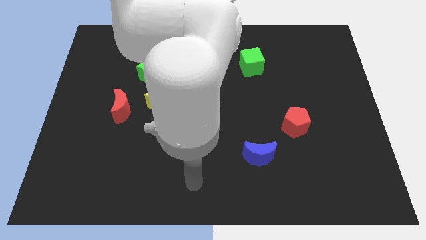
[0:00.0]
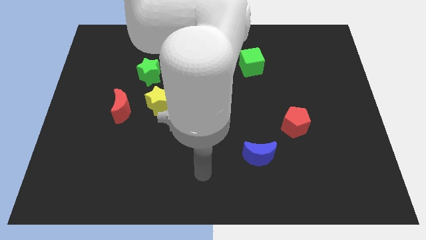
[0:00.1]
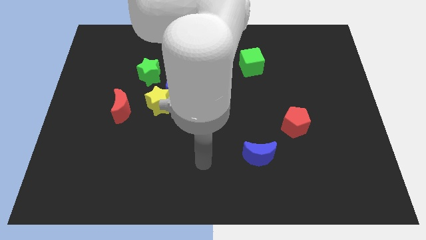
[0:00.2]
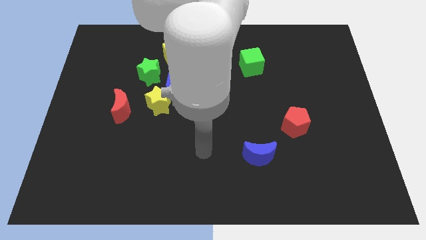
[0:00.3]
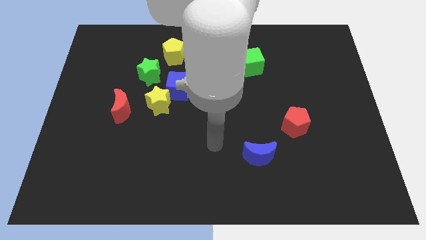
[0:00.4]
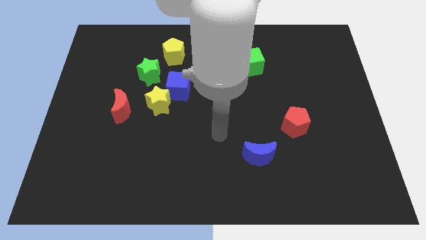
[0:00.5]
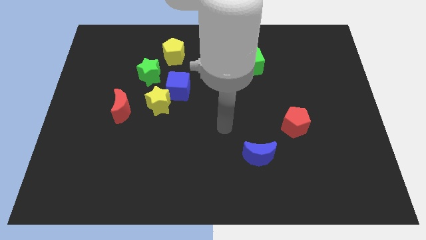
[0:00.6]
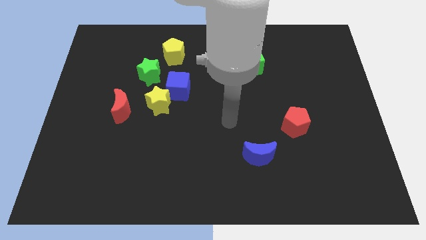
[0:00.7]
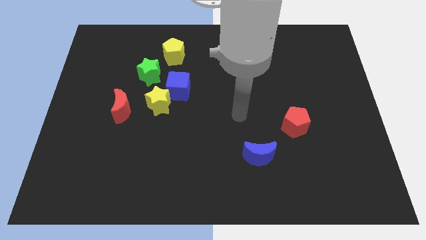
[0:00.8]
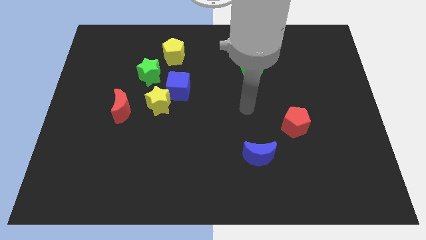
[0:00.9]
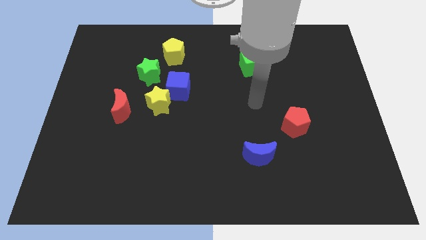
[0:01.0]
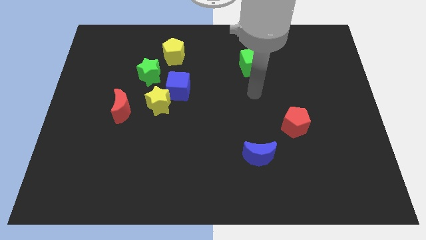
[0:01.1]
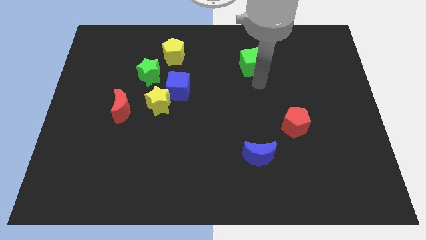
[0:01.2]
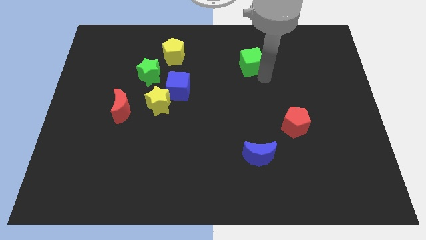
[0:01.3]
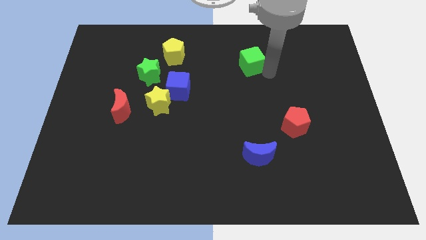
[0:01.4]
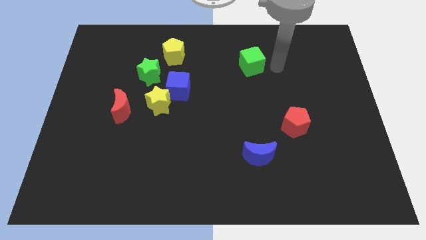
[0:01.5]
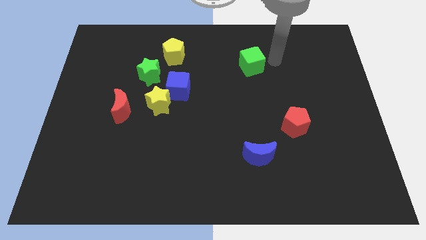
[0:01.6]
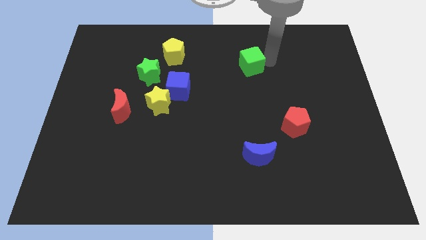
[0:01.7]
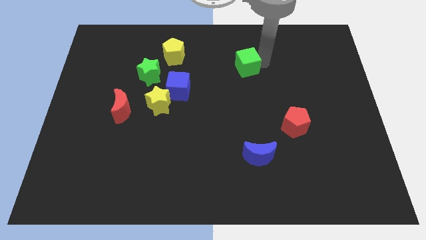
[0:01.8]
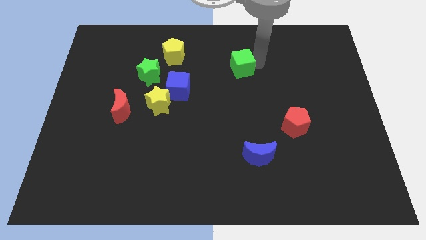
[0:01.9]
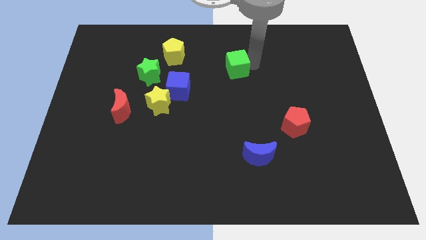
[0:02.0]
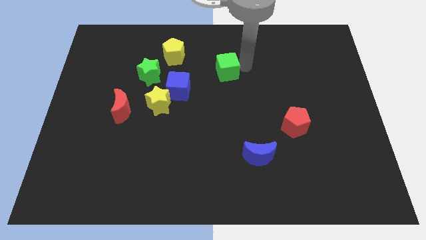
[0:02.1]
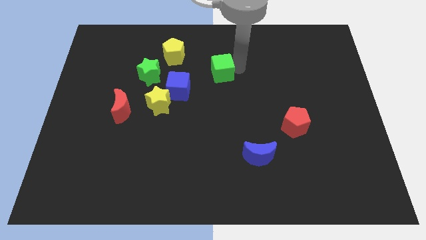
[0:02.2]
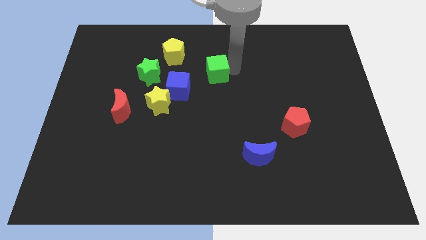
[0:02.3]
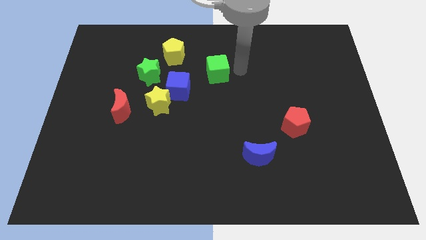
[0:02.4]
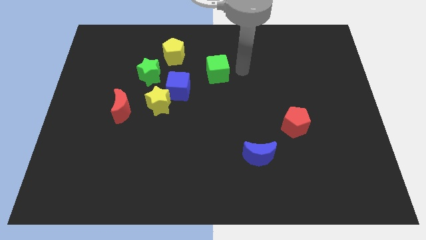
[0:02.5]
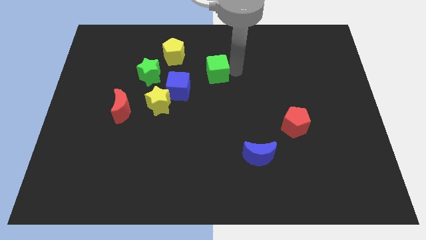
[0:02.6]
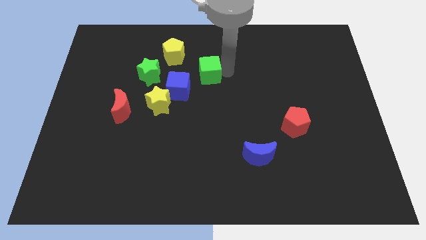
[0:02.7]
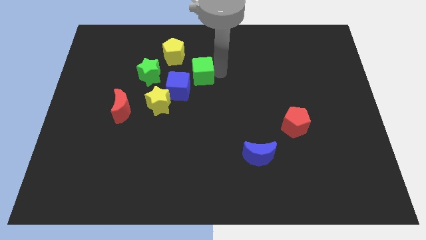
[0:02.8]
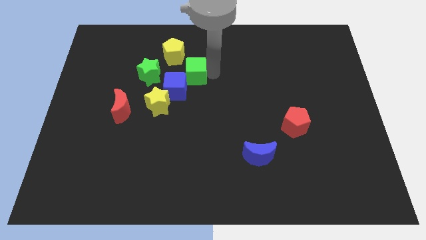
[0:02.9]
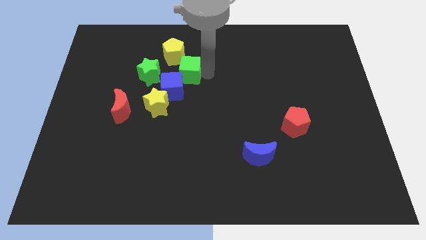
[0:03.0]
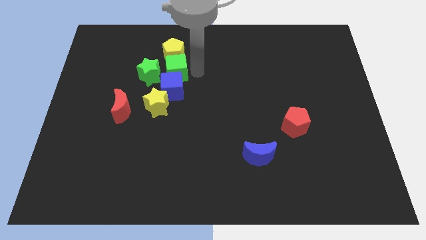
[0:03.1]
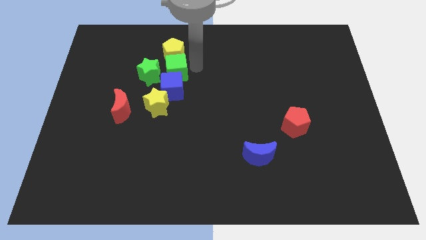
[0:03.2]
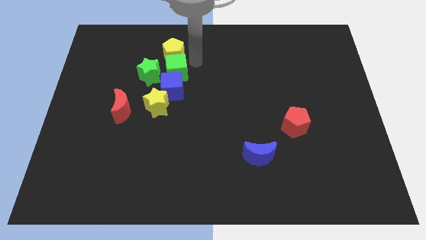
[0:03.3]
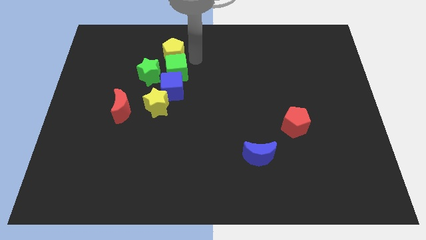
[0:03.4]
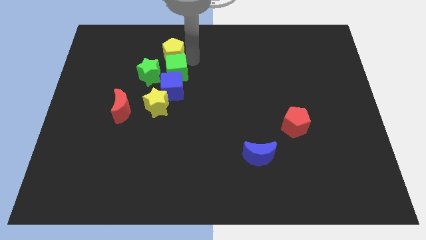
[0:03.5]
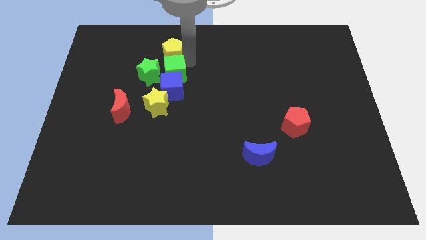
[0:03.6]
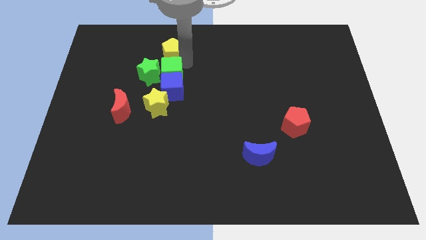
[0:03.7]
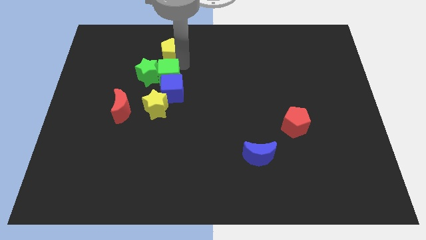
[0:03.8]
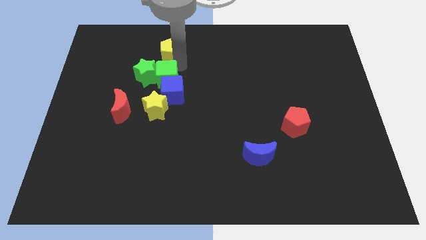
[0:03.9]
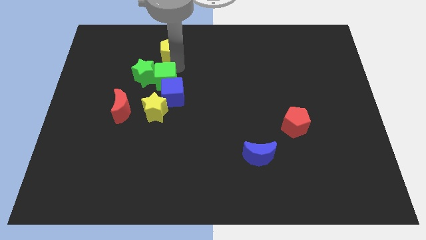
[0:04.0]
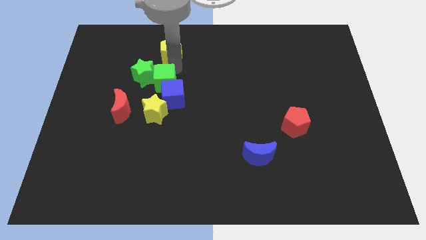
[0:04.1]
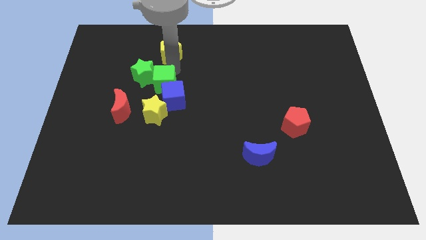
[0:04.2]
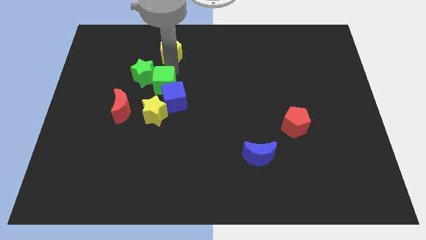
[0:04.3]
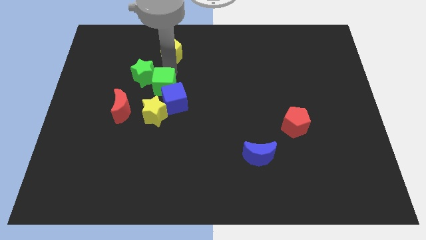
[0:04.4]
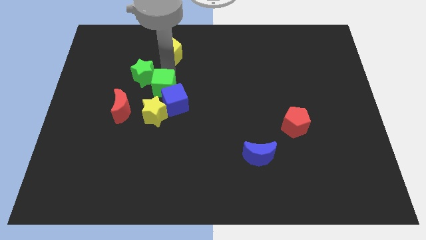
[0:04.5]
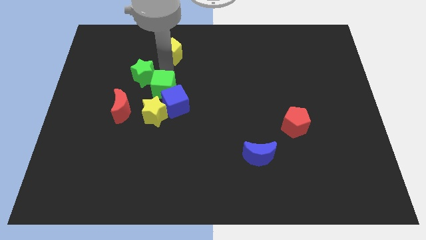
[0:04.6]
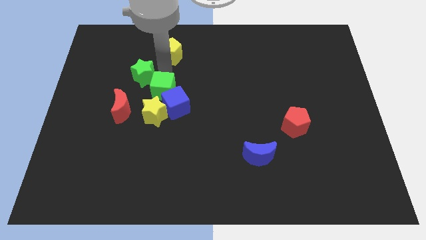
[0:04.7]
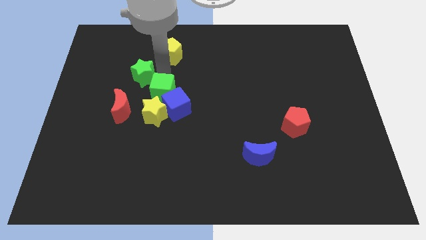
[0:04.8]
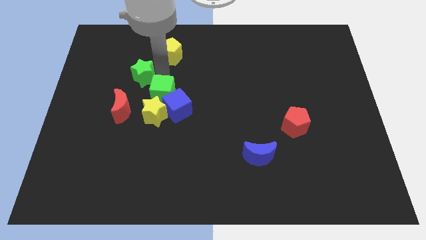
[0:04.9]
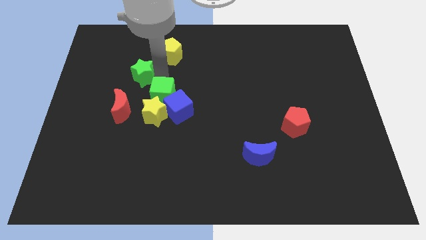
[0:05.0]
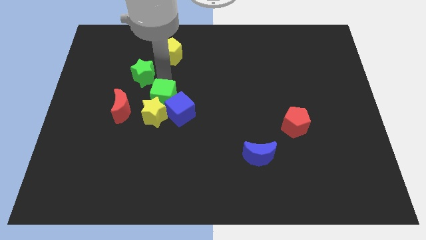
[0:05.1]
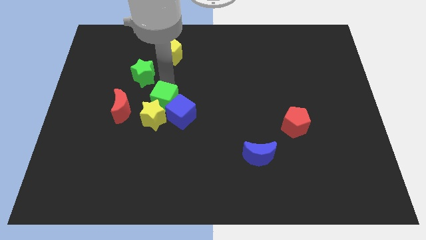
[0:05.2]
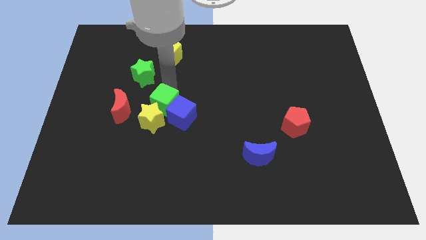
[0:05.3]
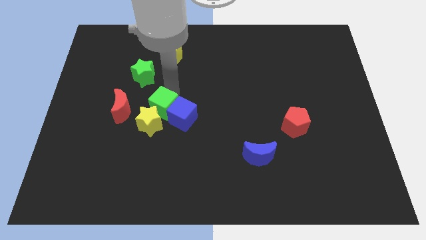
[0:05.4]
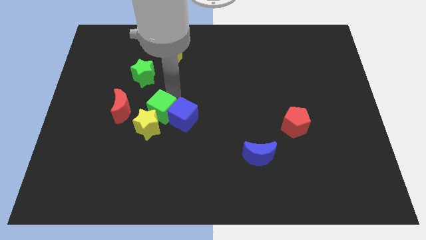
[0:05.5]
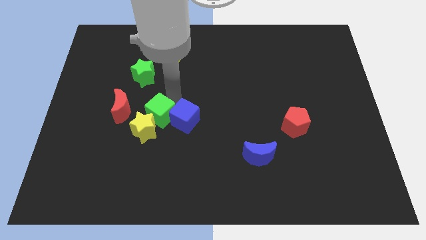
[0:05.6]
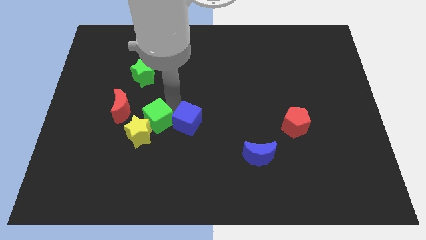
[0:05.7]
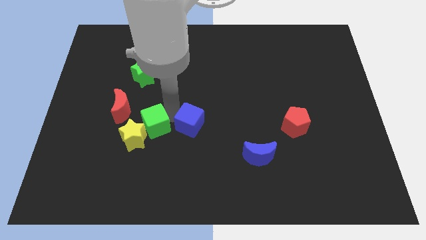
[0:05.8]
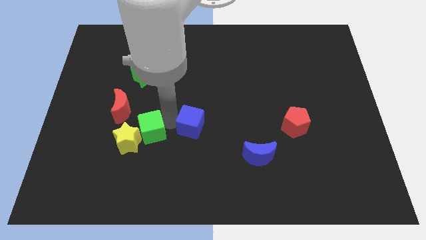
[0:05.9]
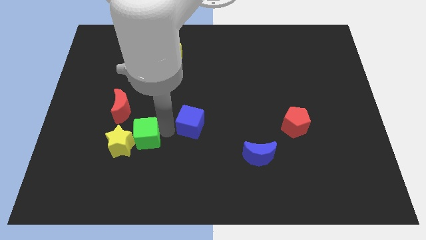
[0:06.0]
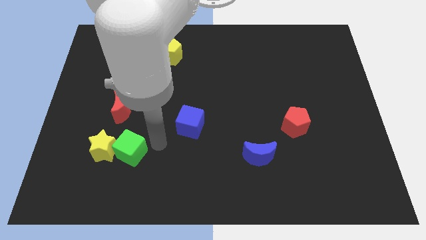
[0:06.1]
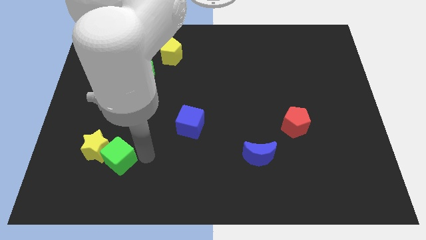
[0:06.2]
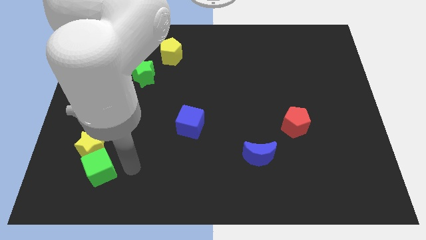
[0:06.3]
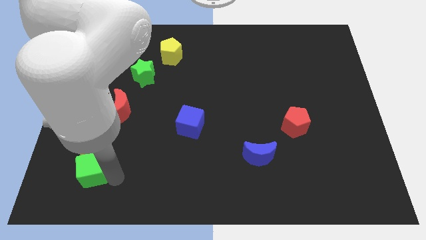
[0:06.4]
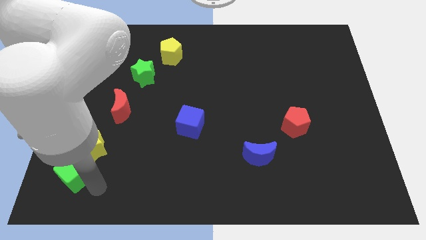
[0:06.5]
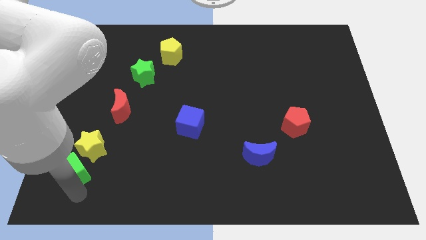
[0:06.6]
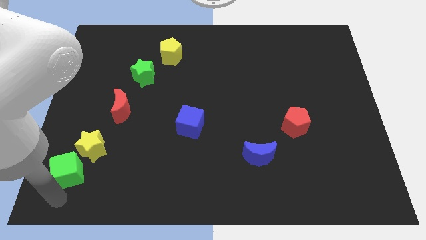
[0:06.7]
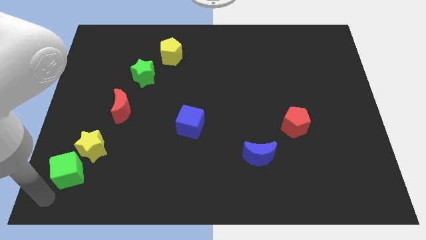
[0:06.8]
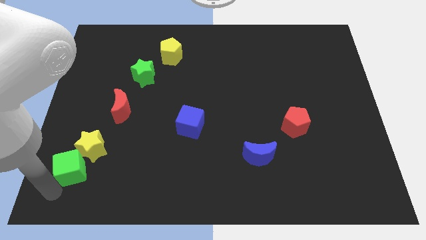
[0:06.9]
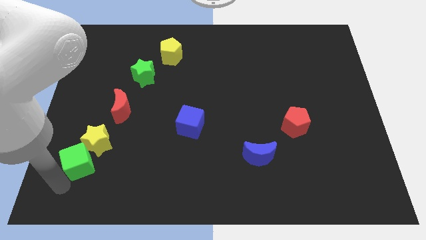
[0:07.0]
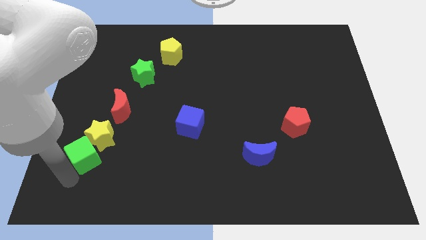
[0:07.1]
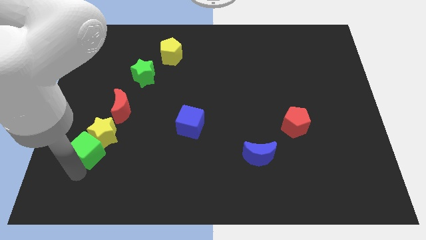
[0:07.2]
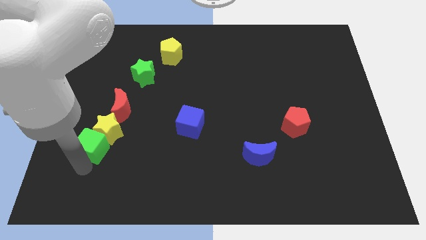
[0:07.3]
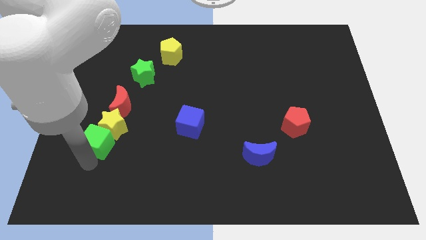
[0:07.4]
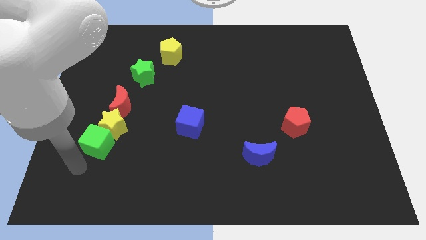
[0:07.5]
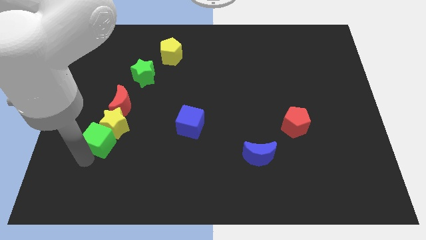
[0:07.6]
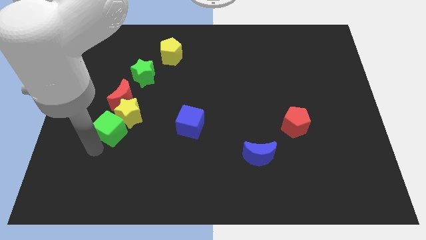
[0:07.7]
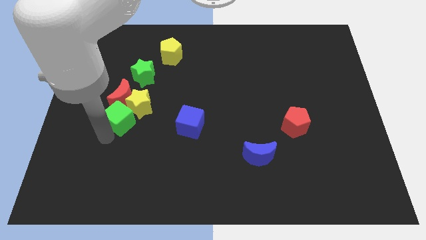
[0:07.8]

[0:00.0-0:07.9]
push the green cube close to the red moon
